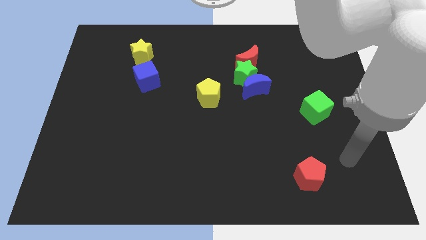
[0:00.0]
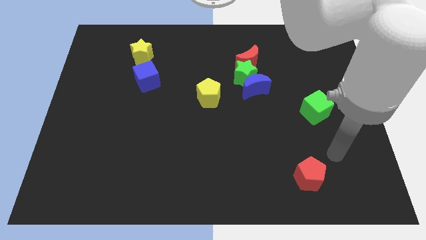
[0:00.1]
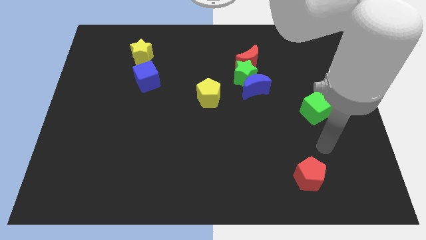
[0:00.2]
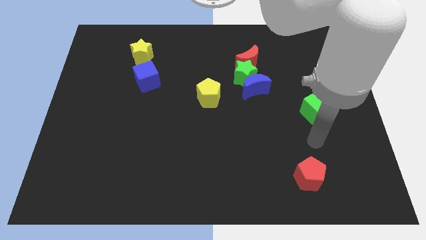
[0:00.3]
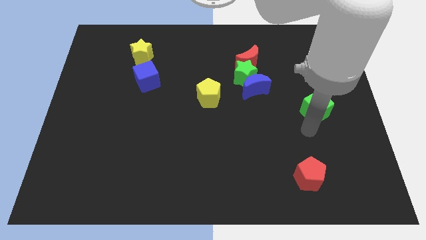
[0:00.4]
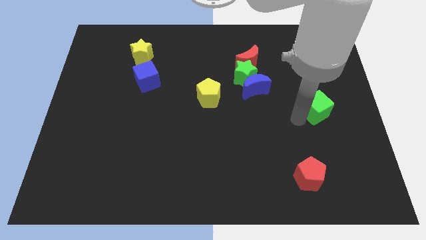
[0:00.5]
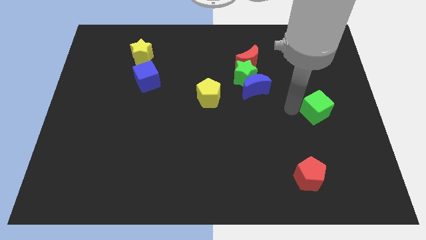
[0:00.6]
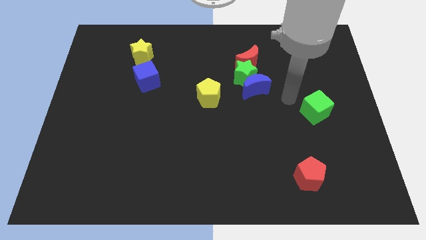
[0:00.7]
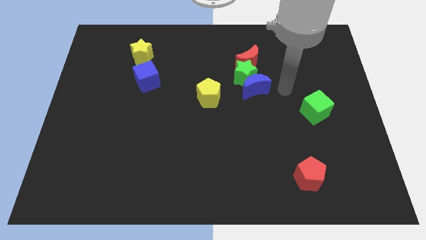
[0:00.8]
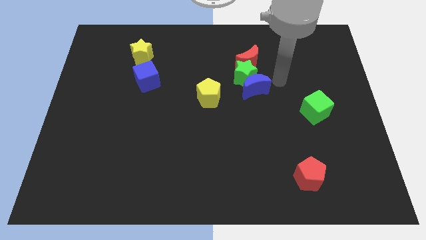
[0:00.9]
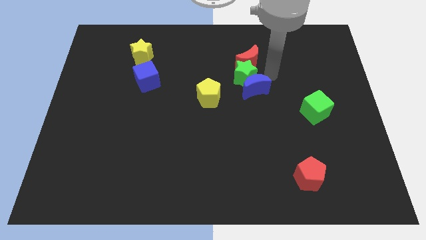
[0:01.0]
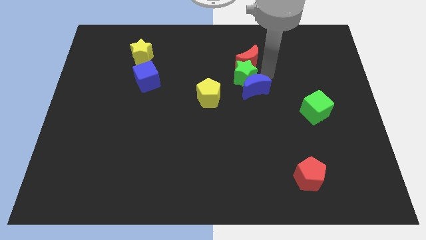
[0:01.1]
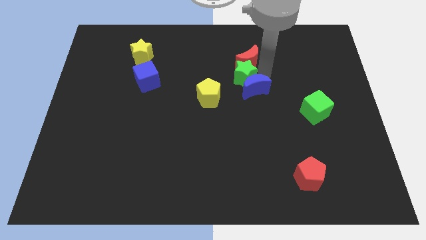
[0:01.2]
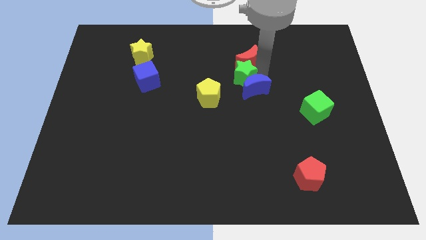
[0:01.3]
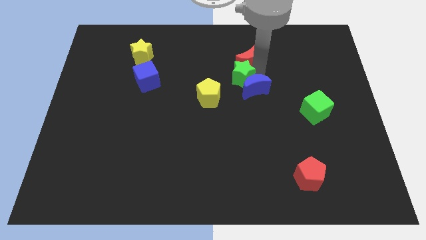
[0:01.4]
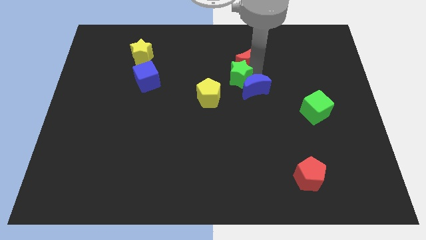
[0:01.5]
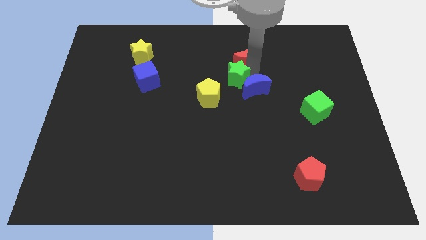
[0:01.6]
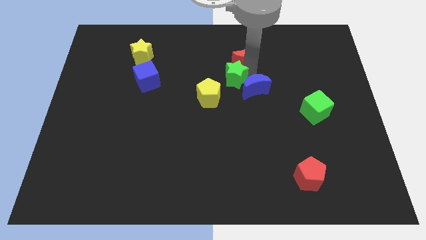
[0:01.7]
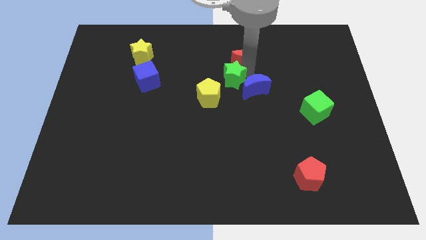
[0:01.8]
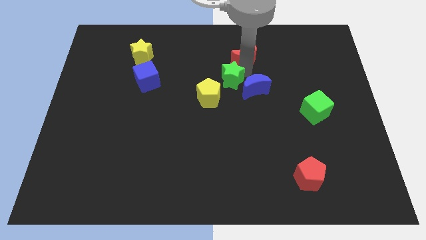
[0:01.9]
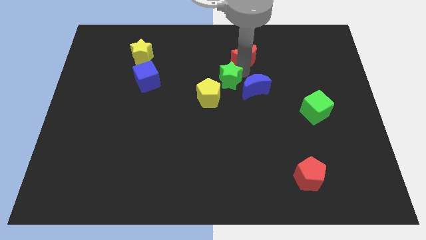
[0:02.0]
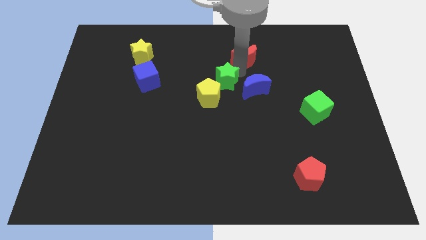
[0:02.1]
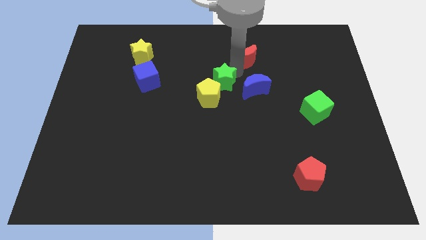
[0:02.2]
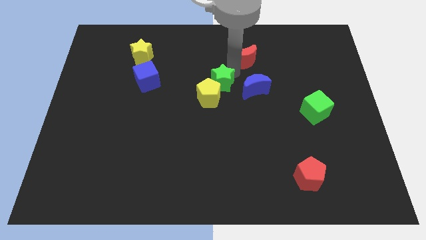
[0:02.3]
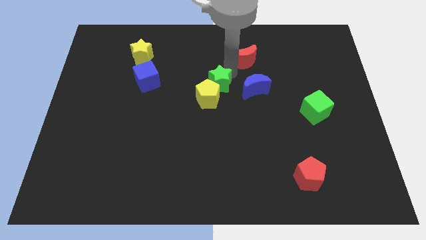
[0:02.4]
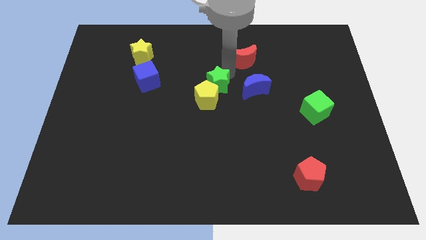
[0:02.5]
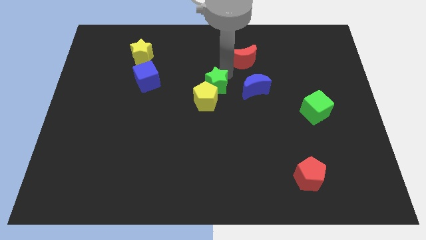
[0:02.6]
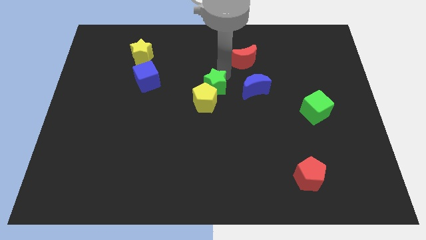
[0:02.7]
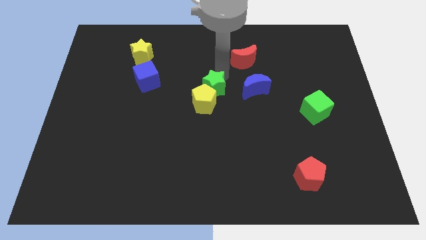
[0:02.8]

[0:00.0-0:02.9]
pull the green star apart from the blue moon and red moon

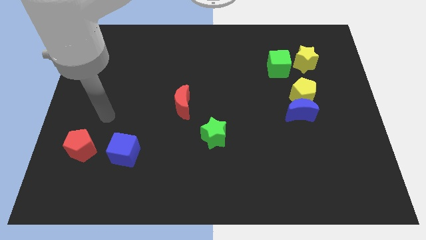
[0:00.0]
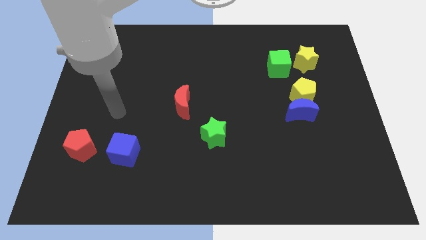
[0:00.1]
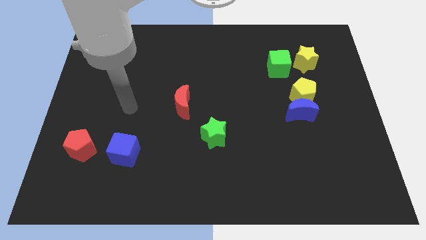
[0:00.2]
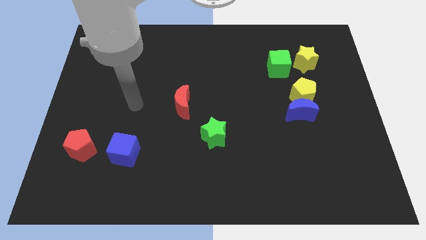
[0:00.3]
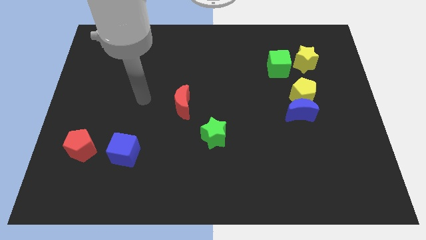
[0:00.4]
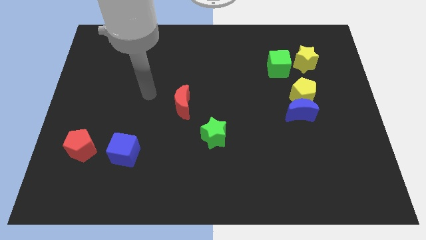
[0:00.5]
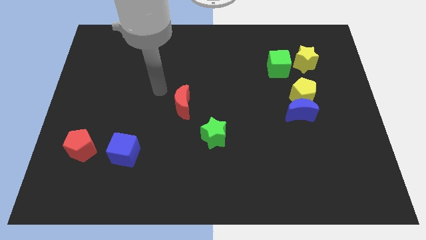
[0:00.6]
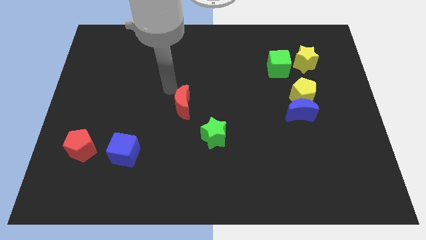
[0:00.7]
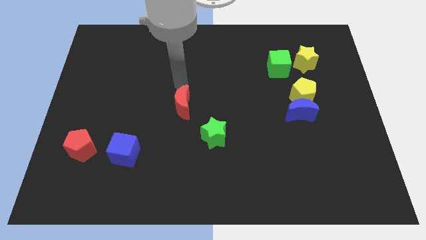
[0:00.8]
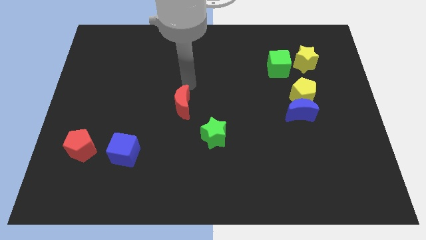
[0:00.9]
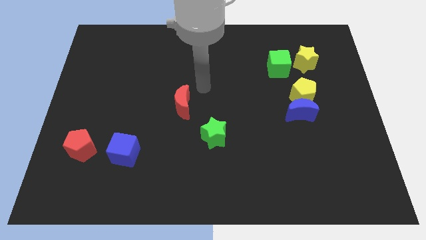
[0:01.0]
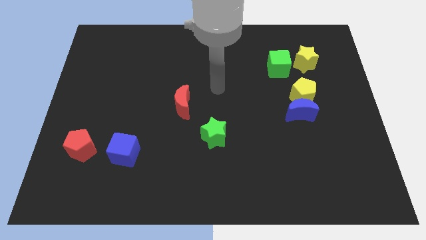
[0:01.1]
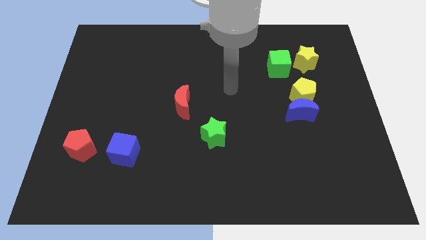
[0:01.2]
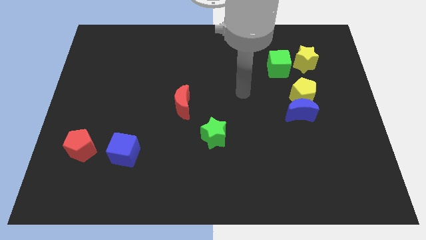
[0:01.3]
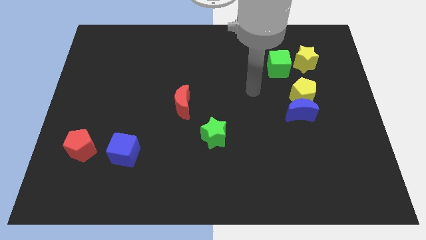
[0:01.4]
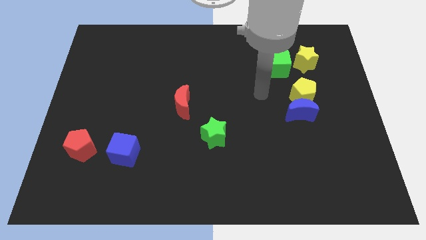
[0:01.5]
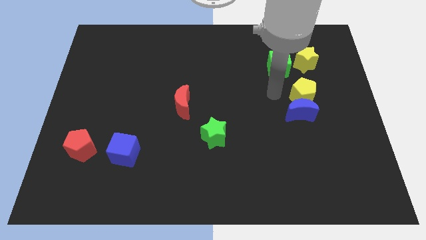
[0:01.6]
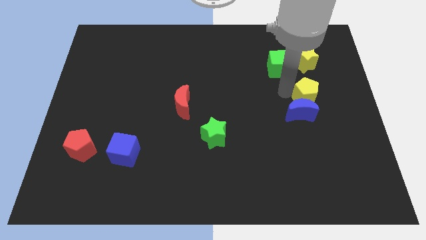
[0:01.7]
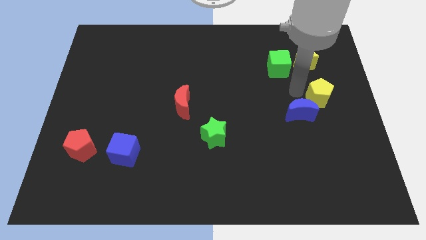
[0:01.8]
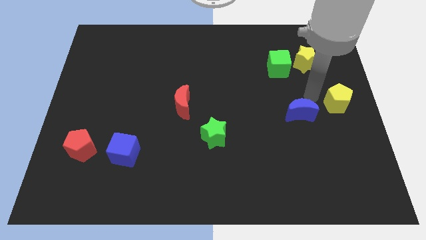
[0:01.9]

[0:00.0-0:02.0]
move the blue moon away from the yellow pentagon

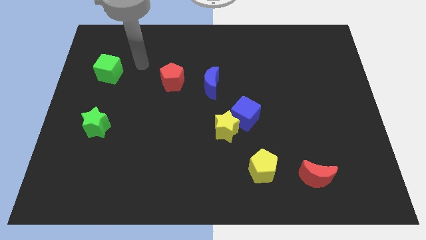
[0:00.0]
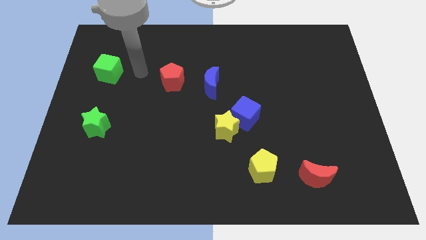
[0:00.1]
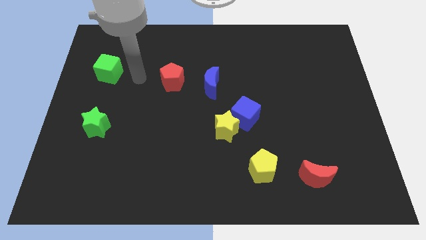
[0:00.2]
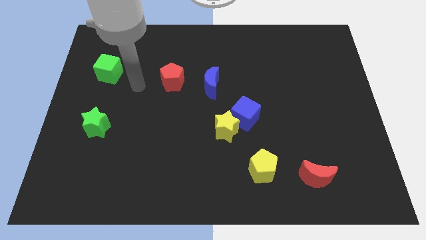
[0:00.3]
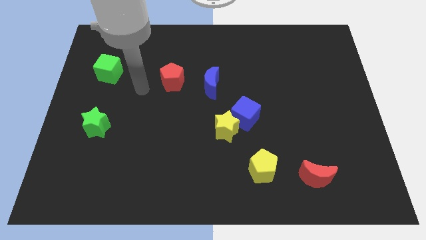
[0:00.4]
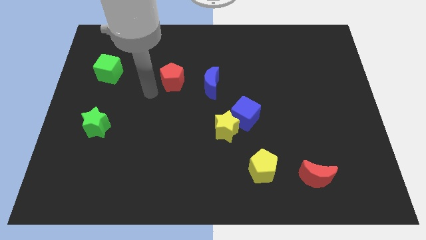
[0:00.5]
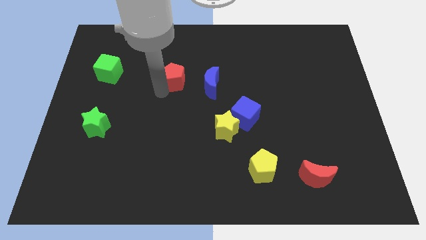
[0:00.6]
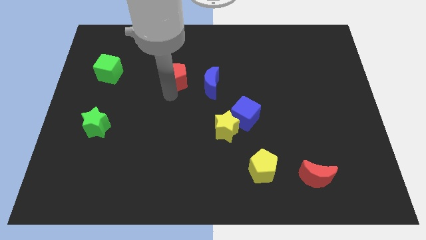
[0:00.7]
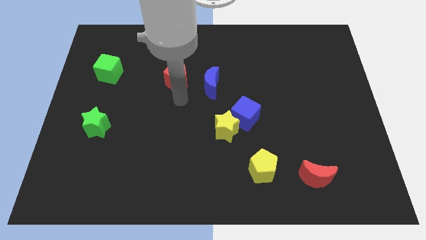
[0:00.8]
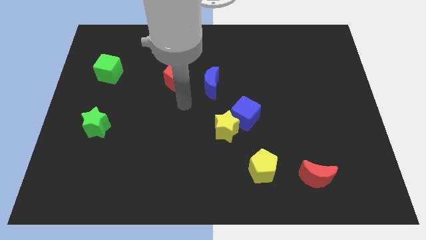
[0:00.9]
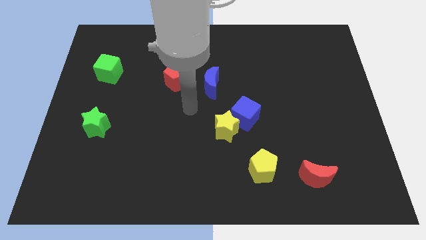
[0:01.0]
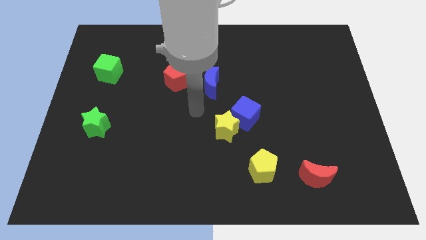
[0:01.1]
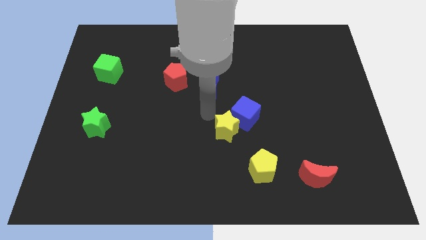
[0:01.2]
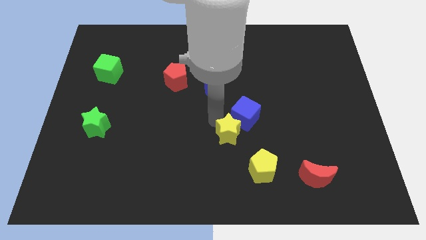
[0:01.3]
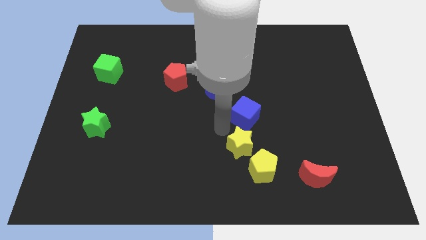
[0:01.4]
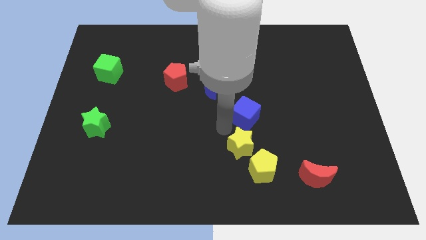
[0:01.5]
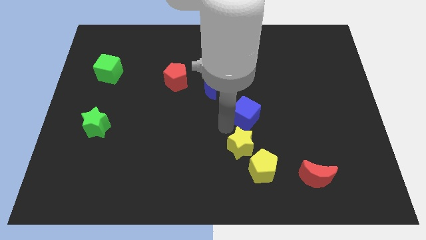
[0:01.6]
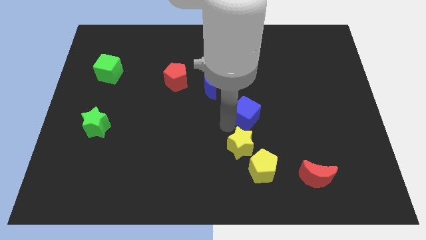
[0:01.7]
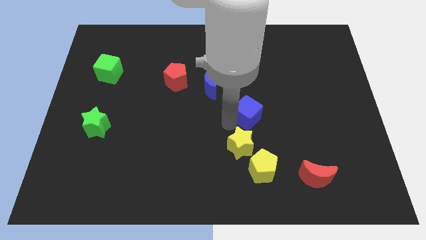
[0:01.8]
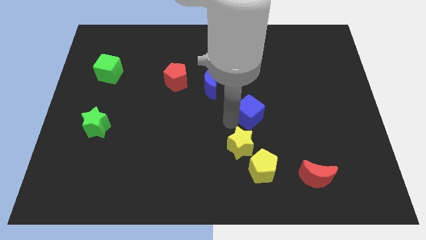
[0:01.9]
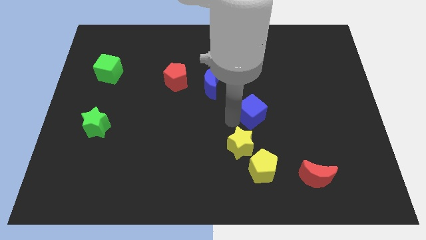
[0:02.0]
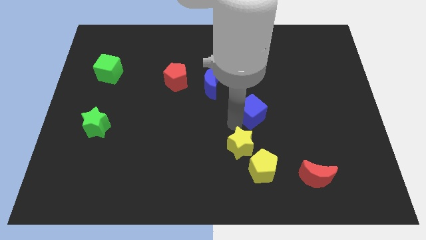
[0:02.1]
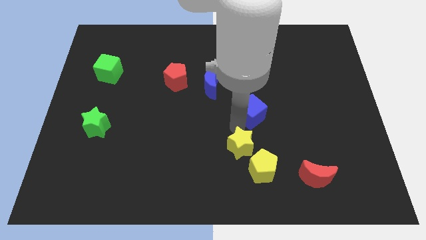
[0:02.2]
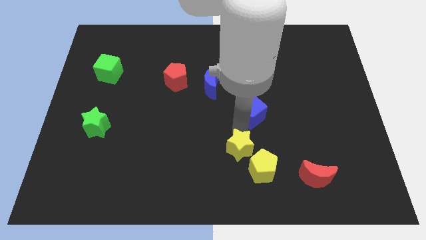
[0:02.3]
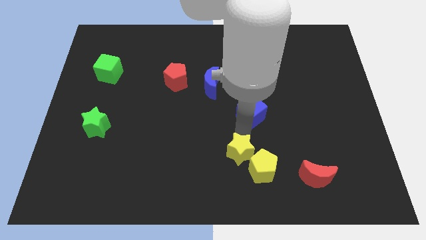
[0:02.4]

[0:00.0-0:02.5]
move the blue cube away from the yellow star

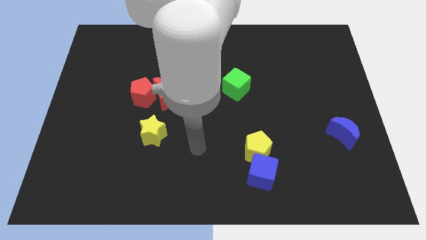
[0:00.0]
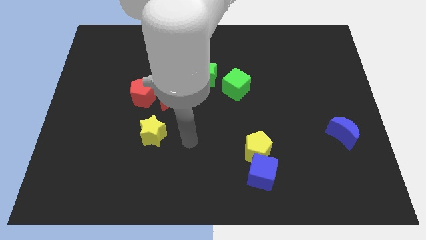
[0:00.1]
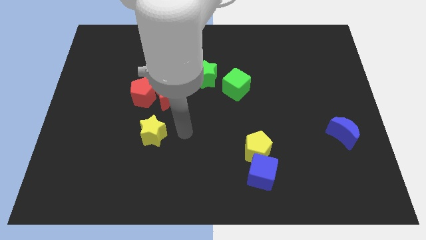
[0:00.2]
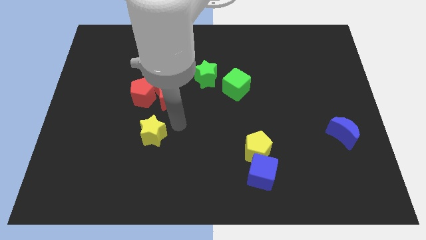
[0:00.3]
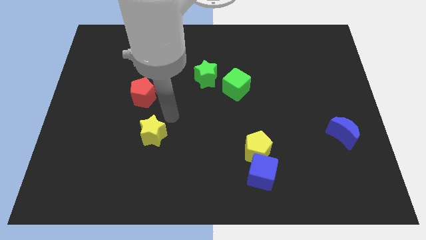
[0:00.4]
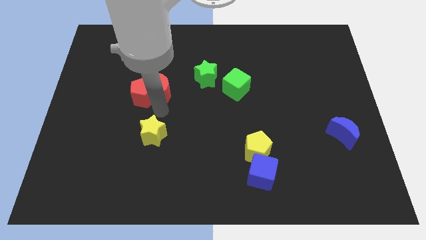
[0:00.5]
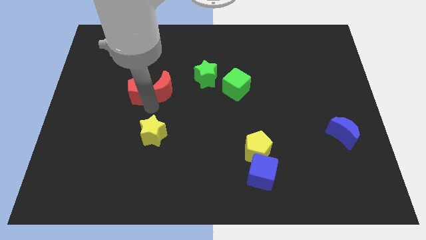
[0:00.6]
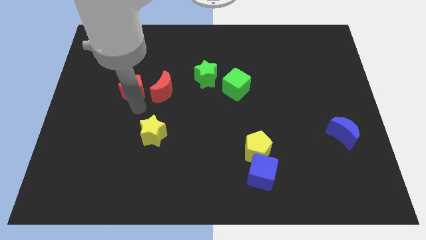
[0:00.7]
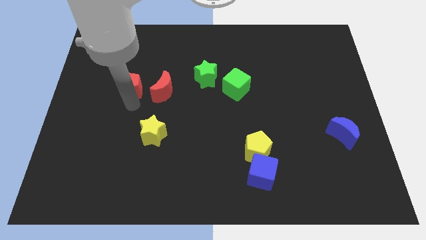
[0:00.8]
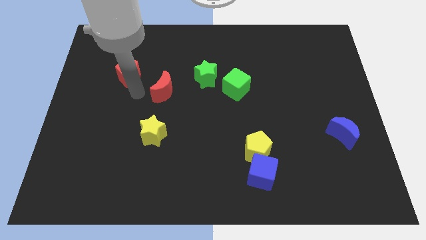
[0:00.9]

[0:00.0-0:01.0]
pull the red moon apart from the red pentagon

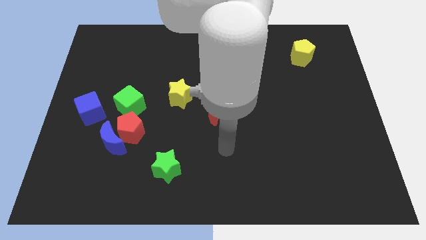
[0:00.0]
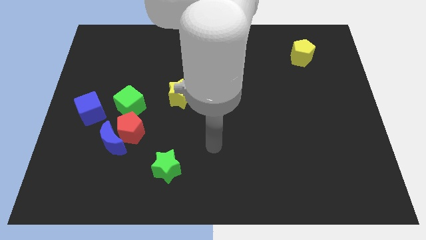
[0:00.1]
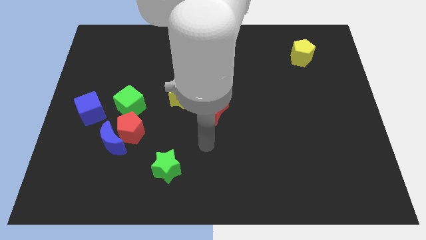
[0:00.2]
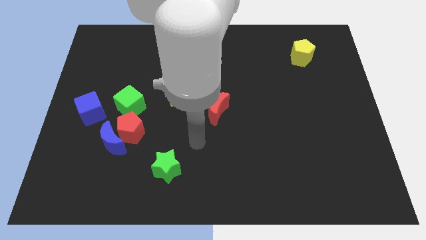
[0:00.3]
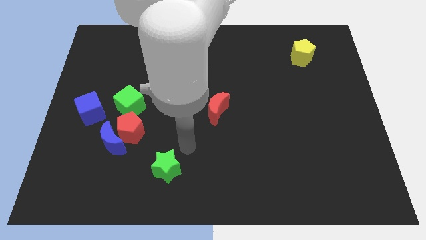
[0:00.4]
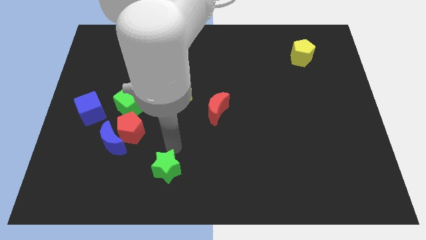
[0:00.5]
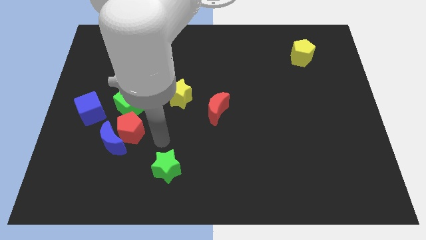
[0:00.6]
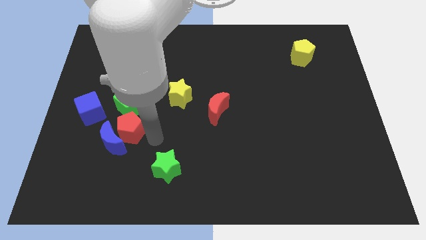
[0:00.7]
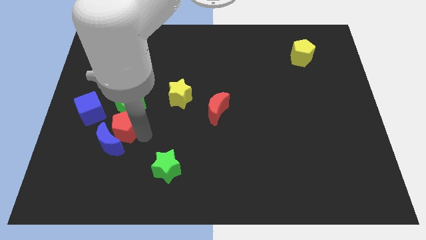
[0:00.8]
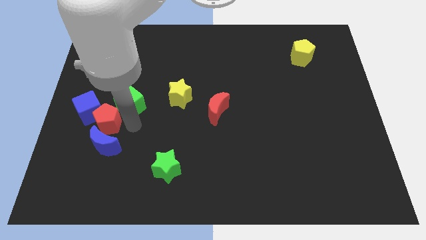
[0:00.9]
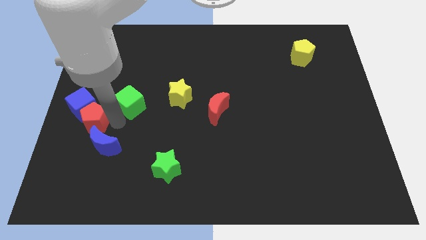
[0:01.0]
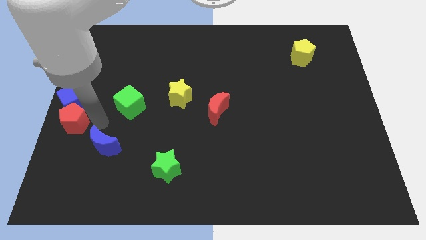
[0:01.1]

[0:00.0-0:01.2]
move the blue moon away from the red pentagon
